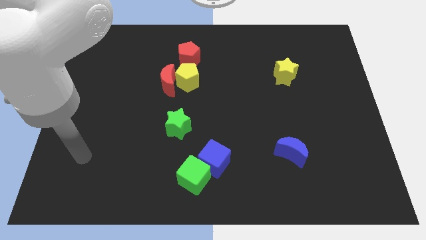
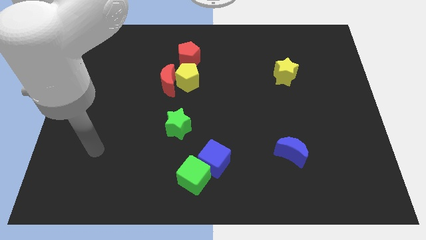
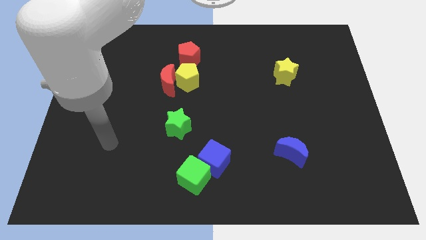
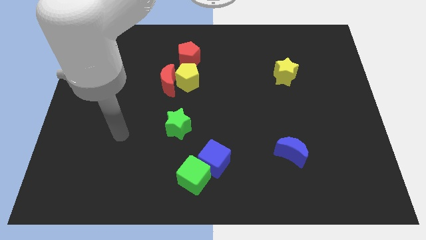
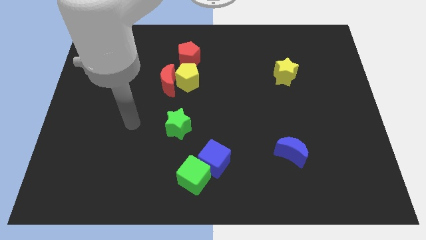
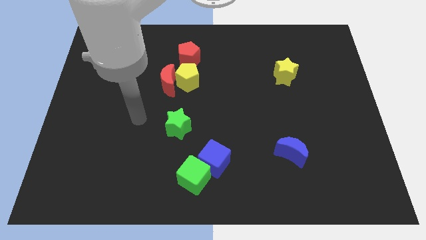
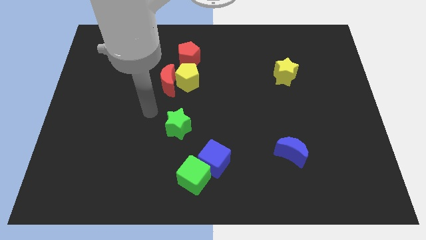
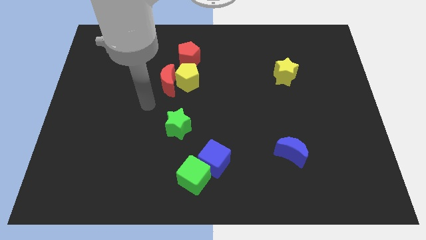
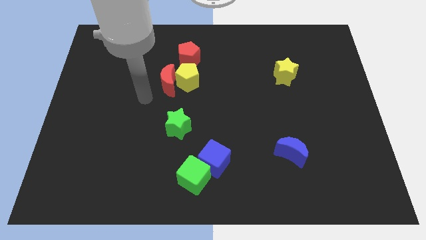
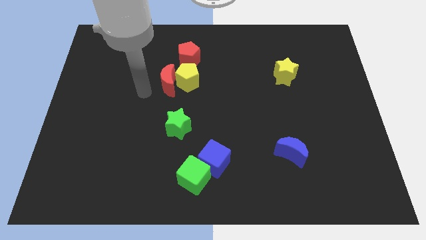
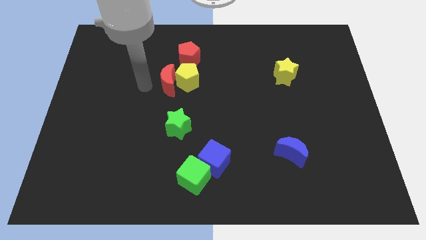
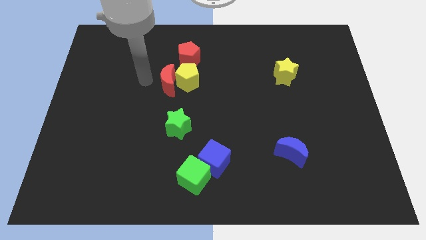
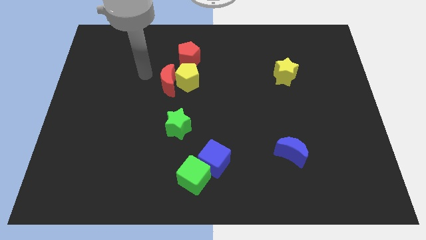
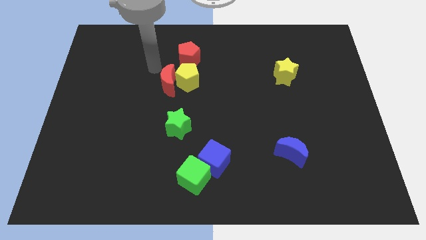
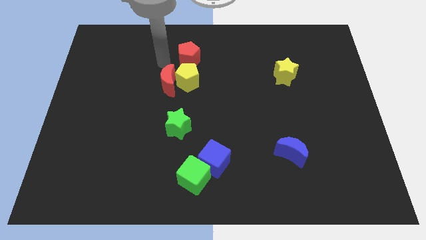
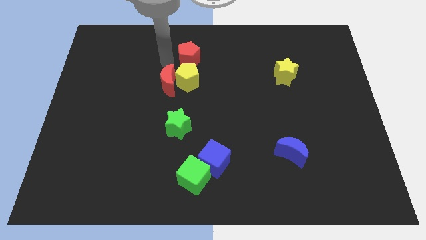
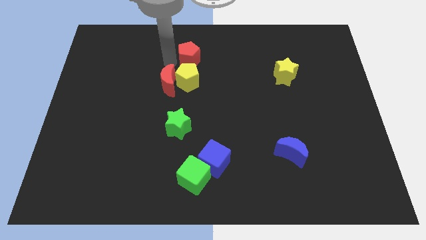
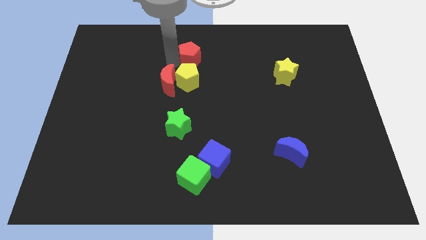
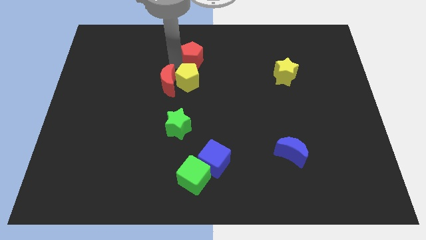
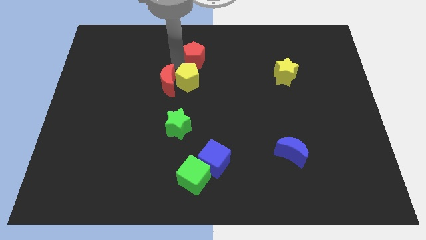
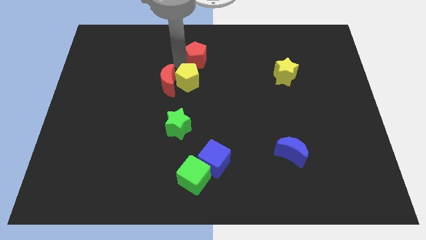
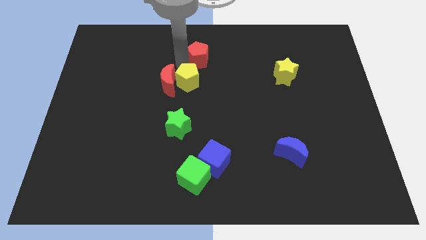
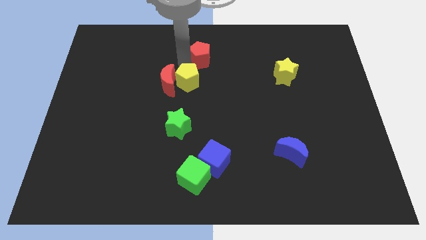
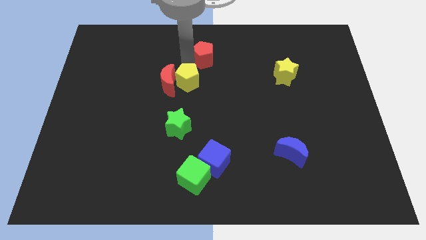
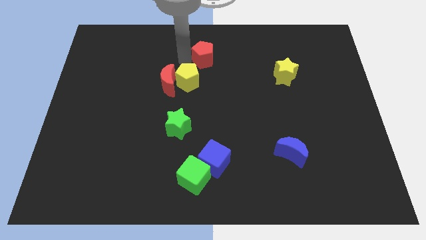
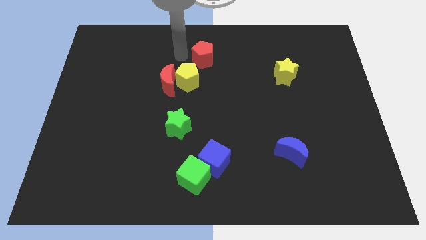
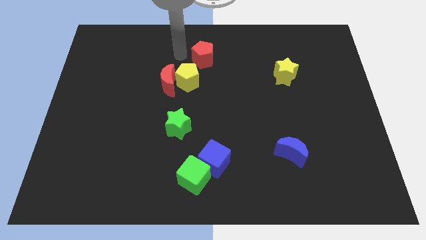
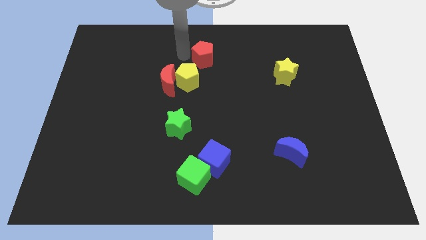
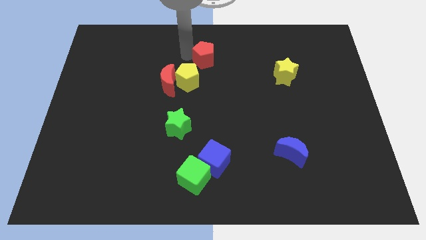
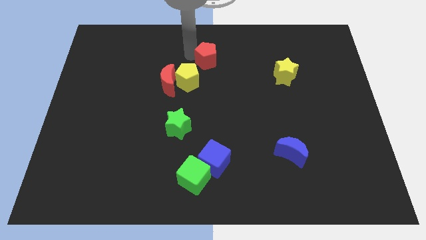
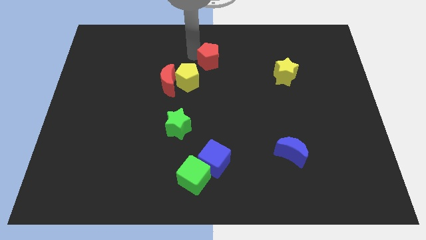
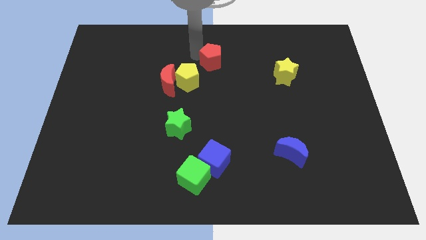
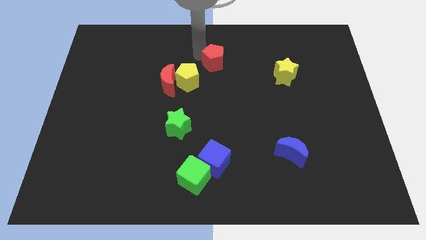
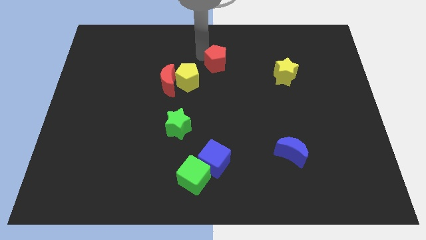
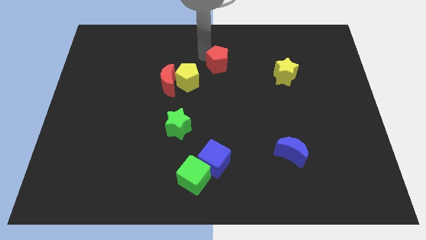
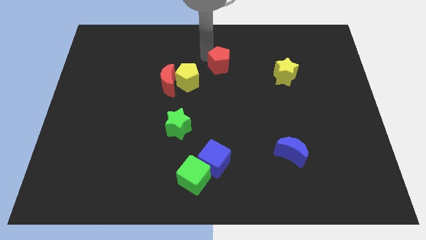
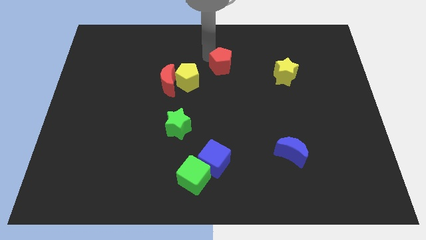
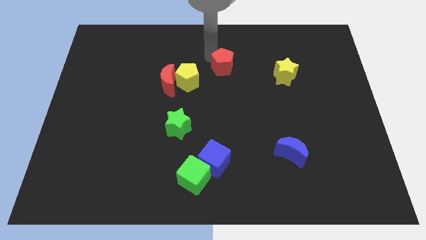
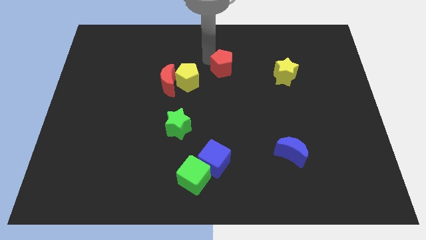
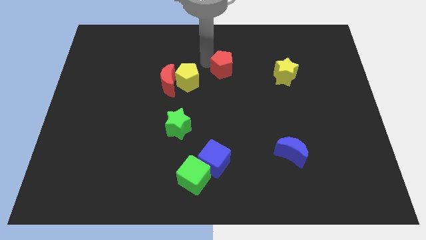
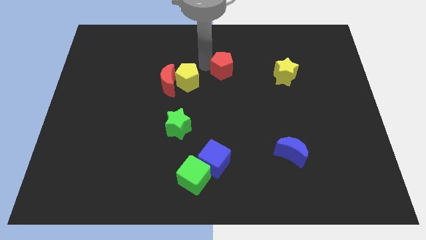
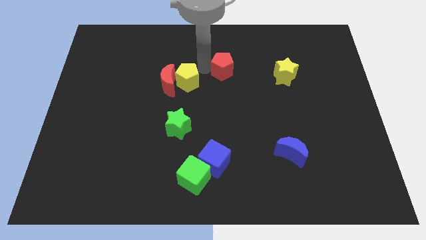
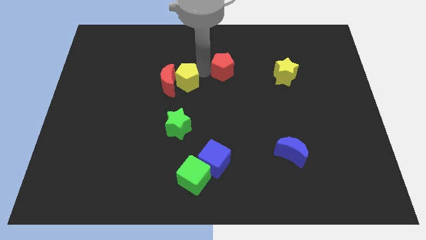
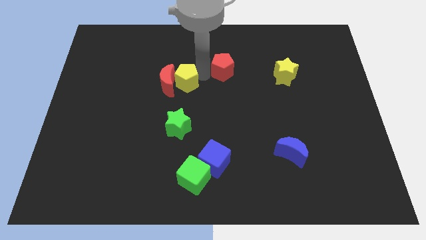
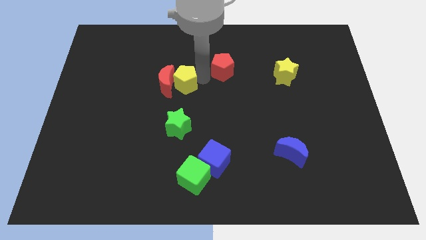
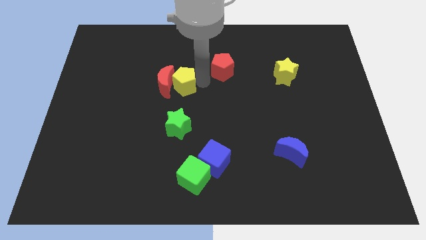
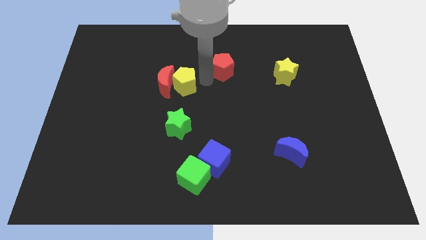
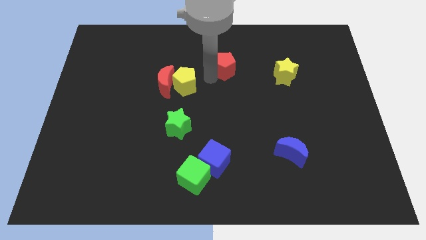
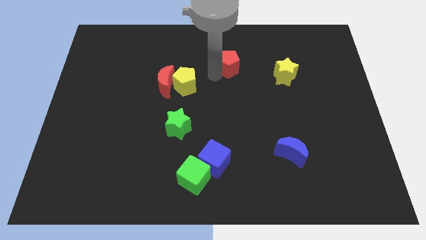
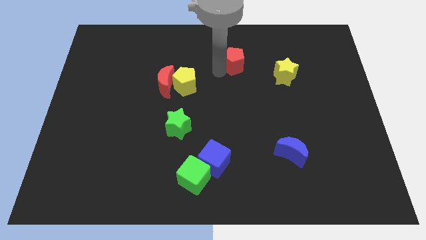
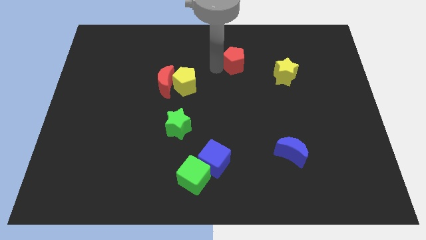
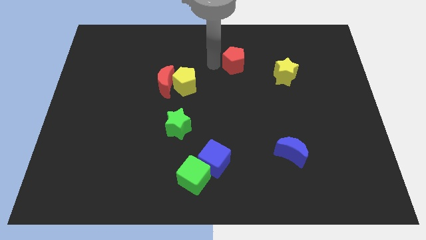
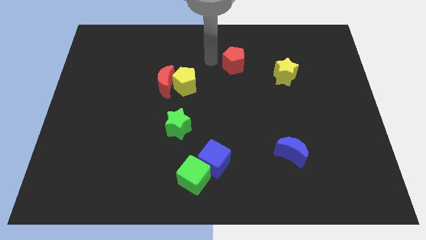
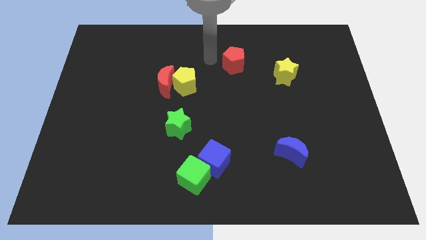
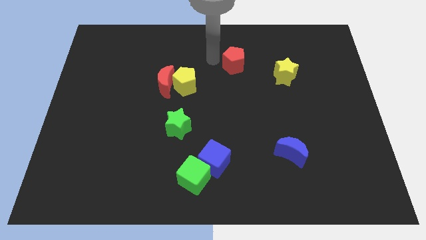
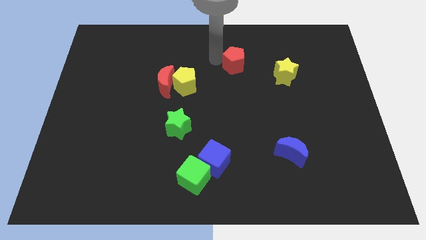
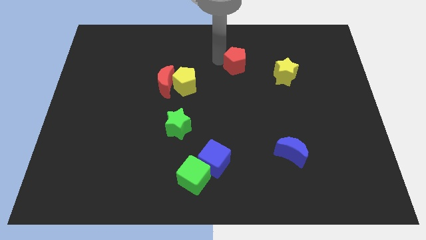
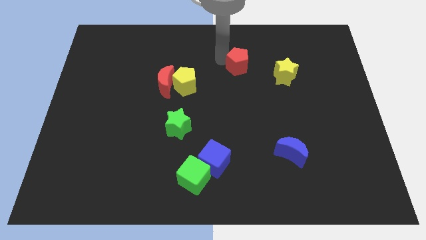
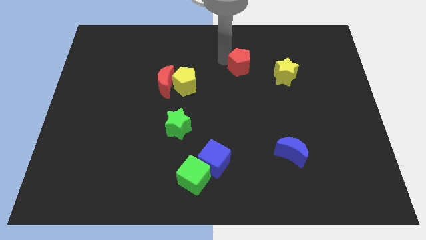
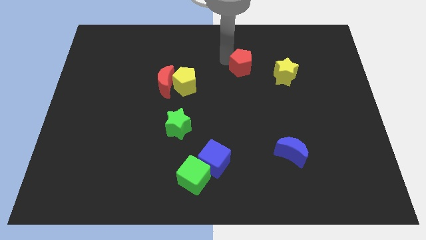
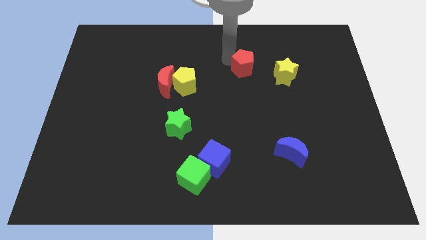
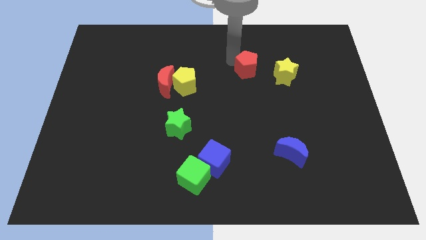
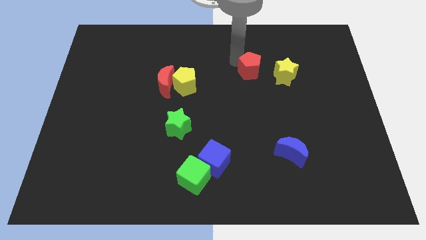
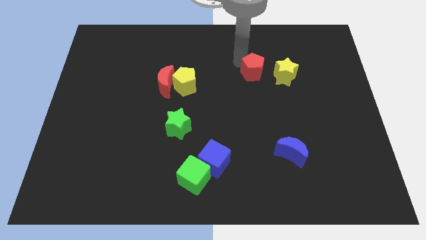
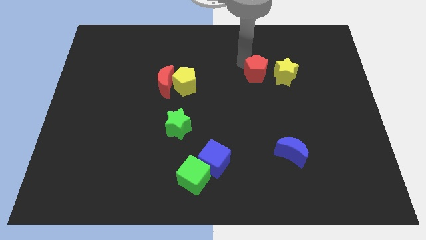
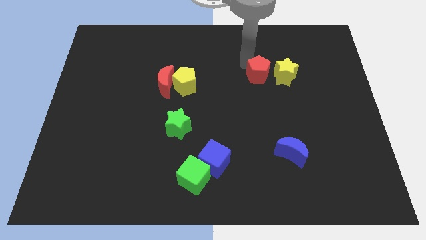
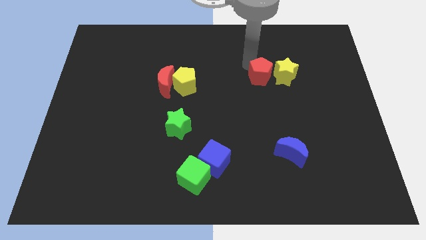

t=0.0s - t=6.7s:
move the red pentagon towards the yellow star
